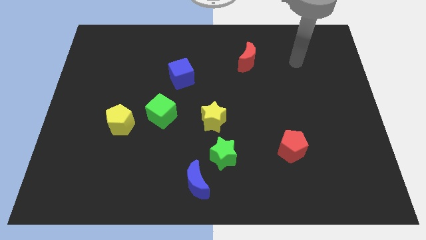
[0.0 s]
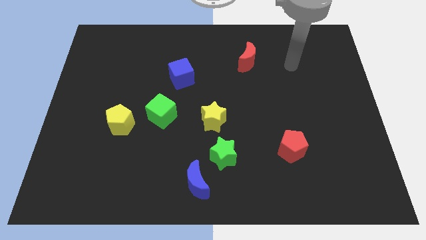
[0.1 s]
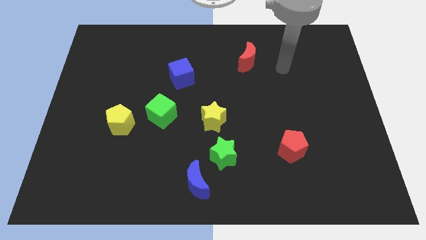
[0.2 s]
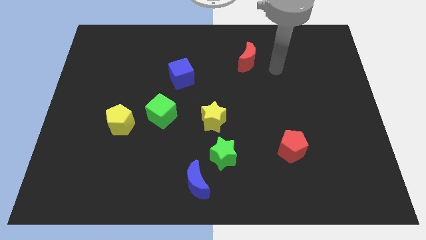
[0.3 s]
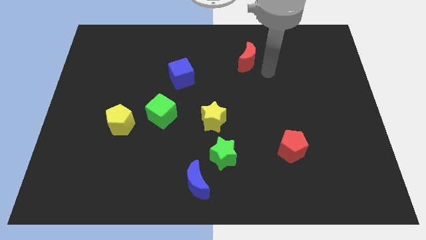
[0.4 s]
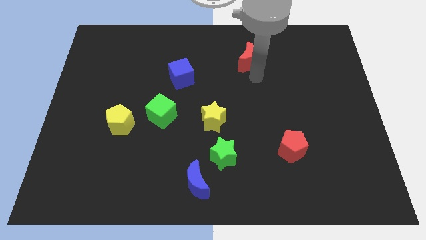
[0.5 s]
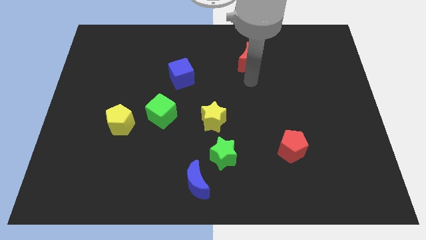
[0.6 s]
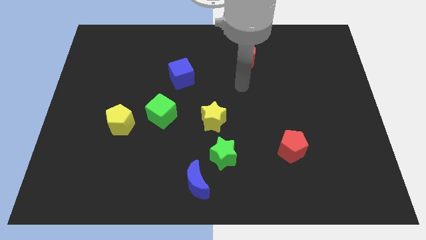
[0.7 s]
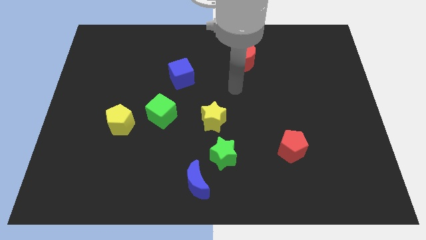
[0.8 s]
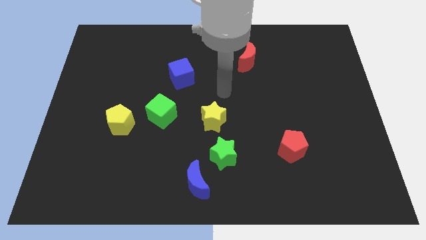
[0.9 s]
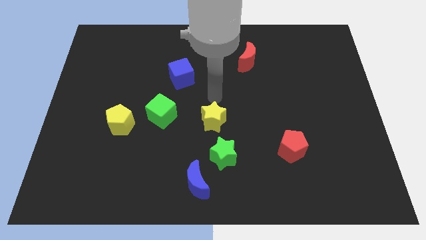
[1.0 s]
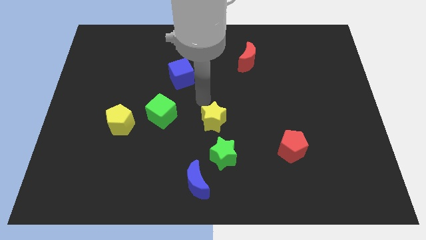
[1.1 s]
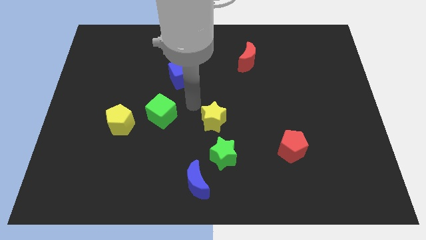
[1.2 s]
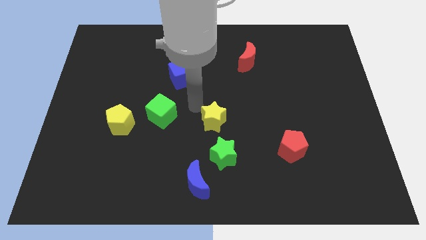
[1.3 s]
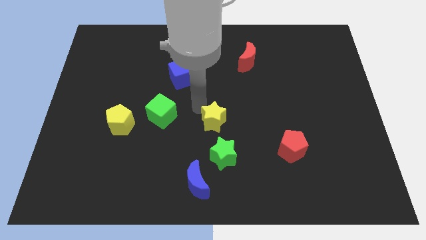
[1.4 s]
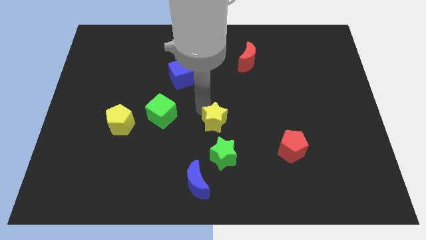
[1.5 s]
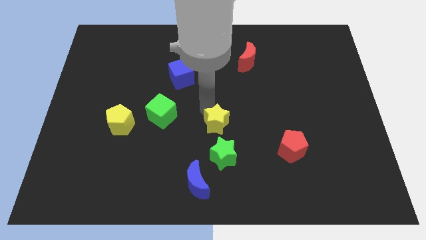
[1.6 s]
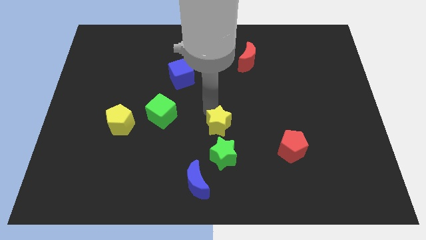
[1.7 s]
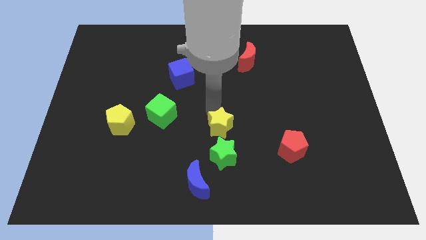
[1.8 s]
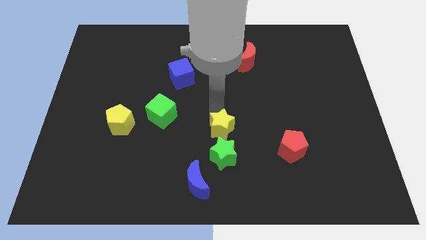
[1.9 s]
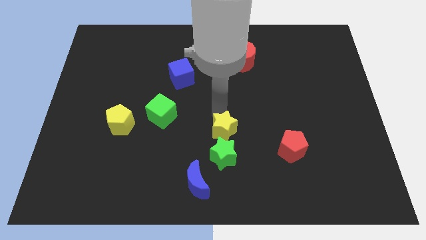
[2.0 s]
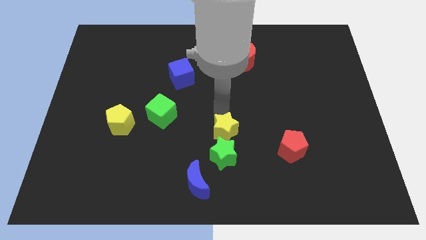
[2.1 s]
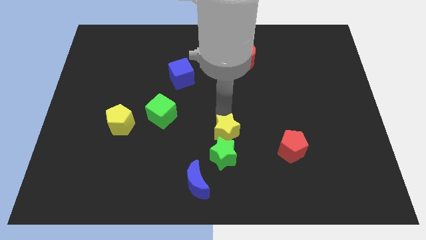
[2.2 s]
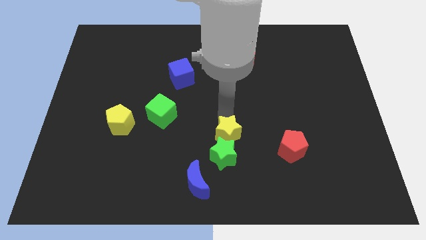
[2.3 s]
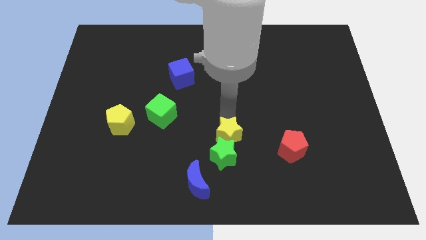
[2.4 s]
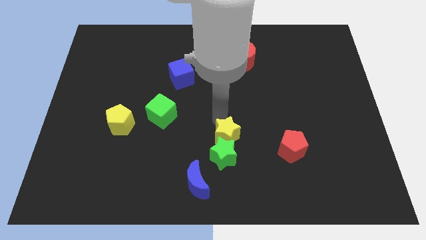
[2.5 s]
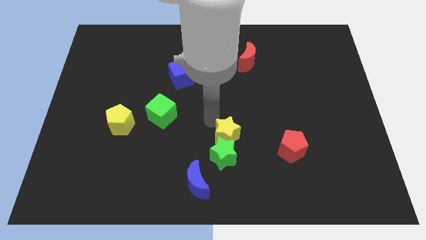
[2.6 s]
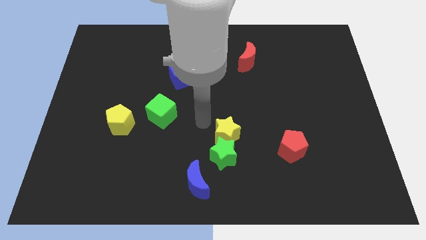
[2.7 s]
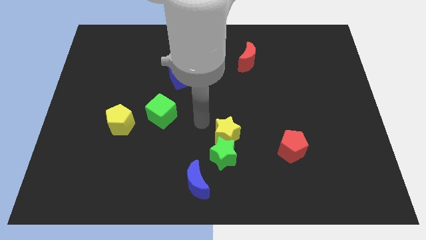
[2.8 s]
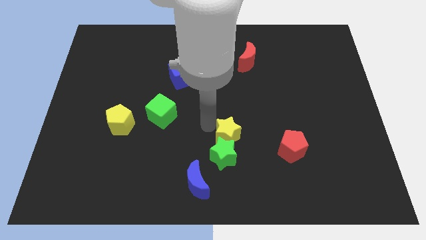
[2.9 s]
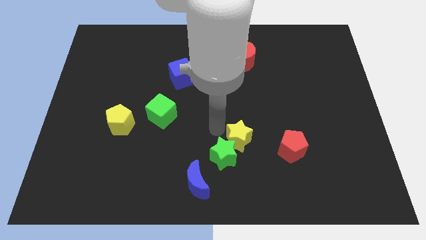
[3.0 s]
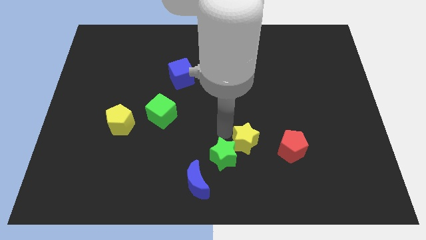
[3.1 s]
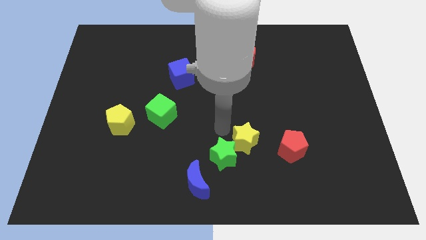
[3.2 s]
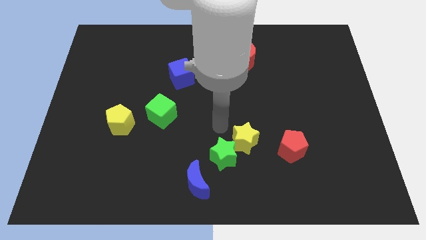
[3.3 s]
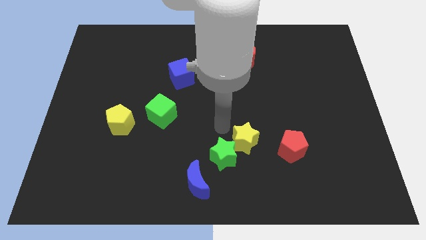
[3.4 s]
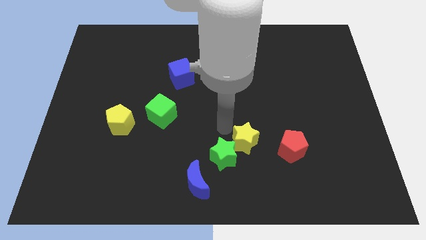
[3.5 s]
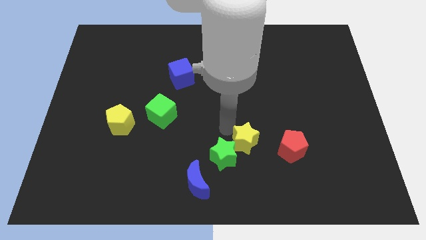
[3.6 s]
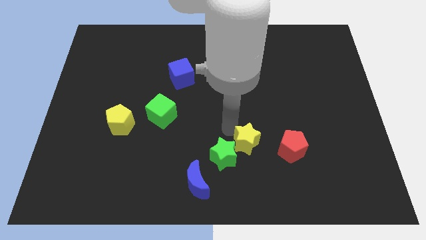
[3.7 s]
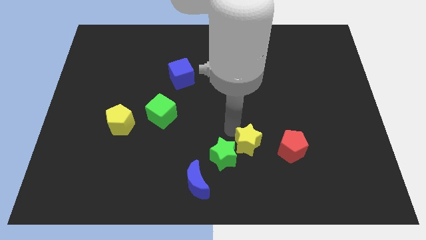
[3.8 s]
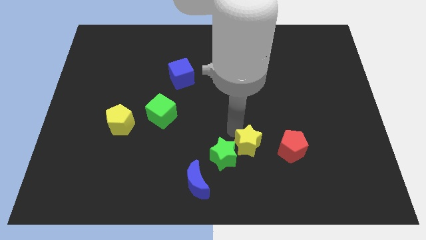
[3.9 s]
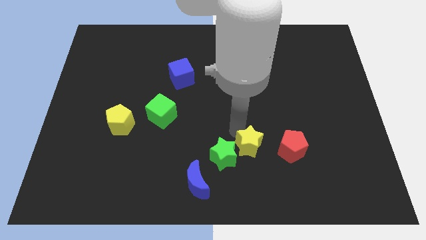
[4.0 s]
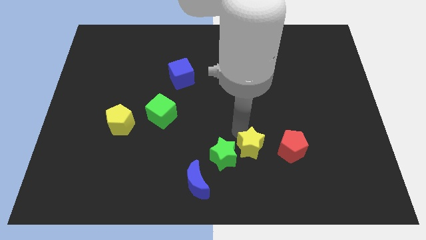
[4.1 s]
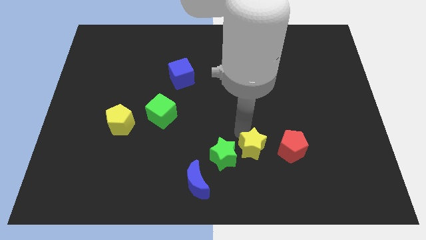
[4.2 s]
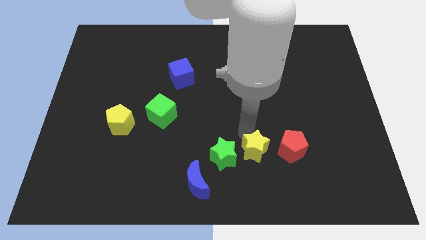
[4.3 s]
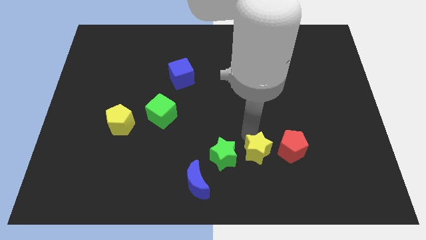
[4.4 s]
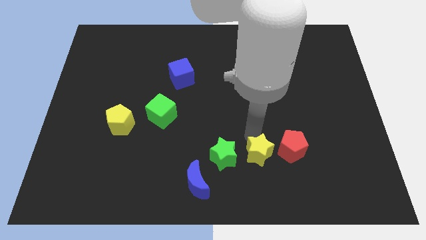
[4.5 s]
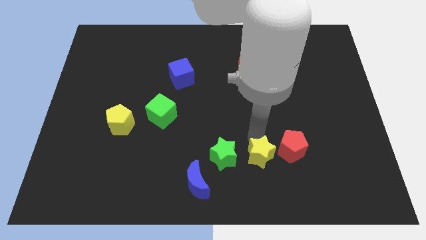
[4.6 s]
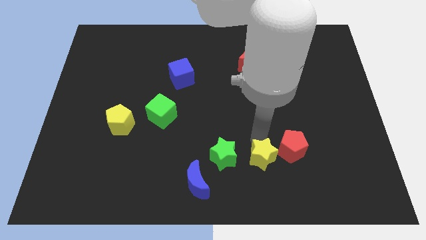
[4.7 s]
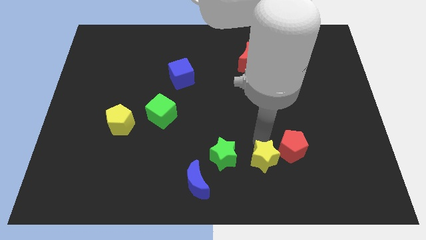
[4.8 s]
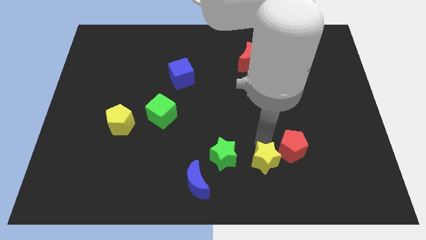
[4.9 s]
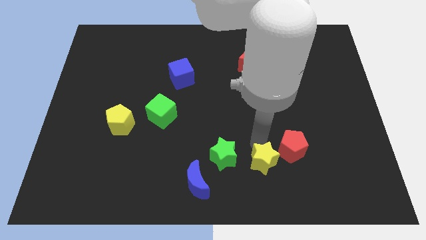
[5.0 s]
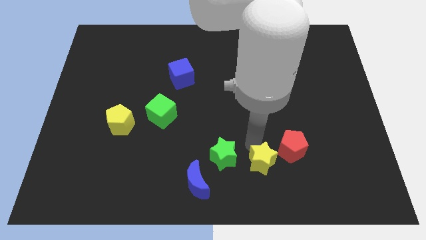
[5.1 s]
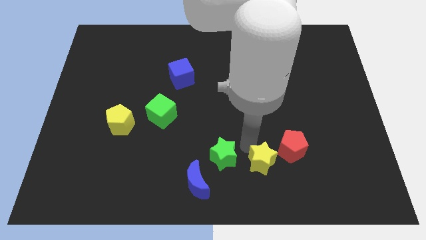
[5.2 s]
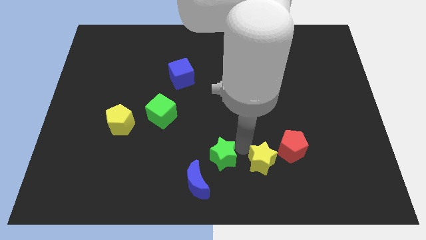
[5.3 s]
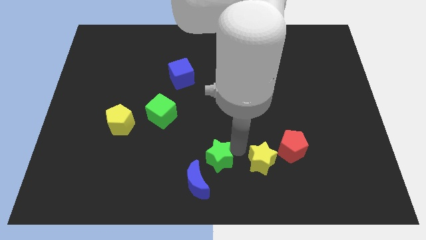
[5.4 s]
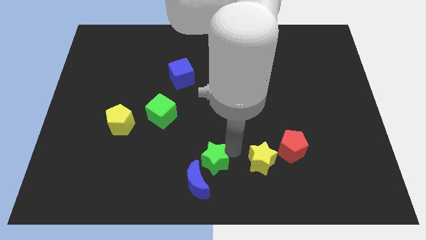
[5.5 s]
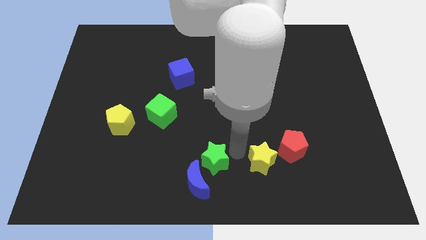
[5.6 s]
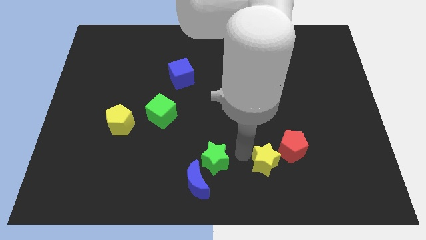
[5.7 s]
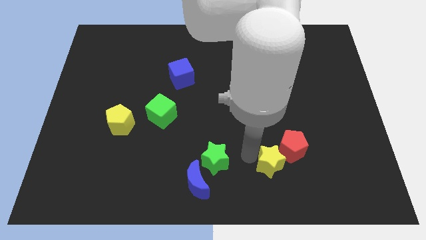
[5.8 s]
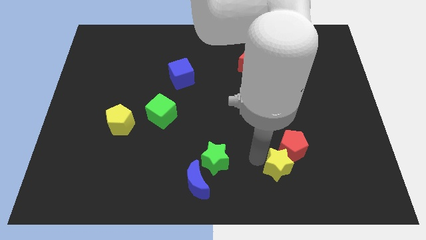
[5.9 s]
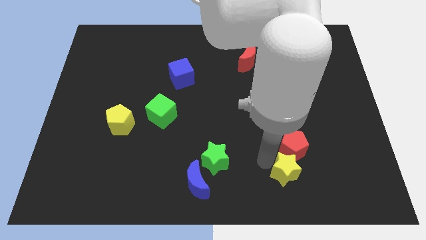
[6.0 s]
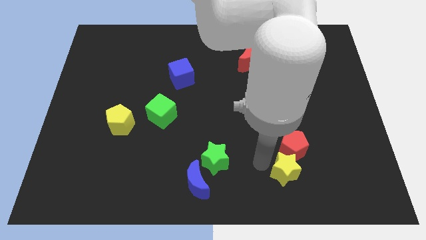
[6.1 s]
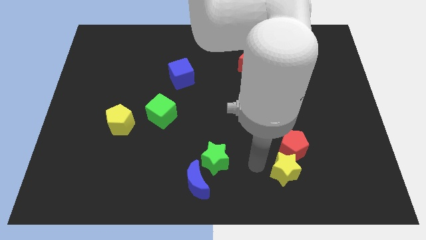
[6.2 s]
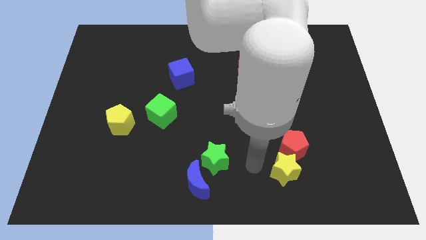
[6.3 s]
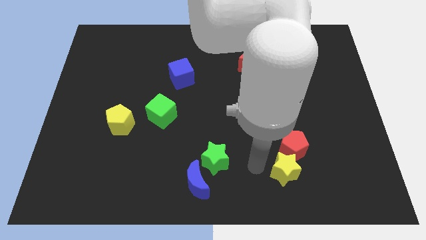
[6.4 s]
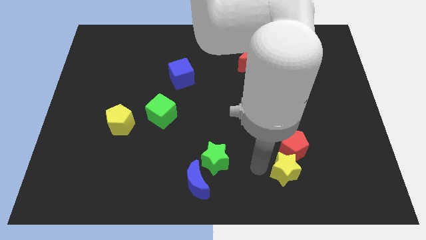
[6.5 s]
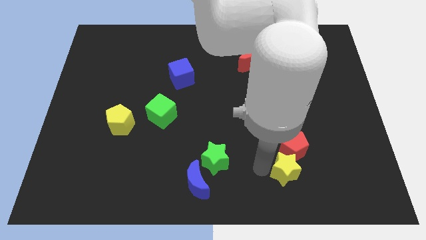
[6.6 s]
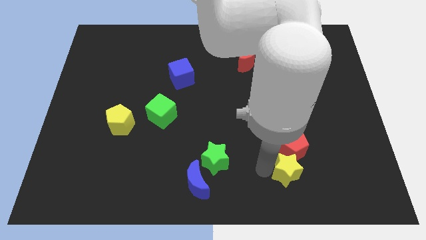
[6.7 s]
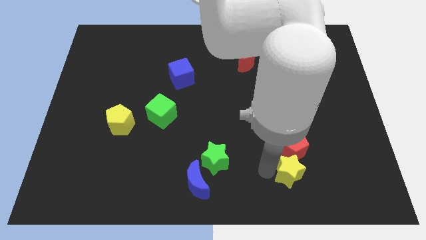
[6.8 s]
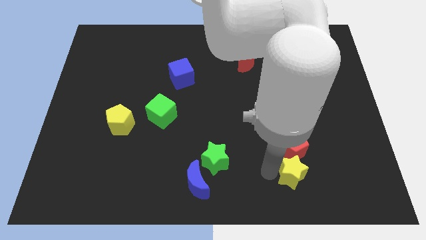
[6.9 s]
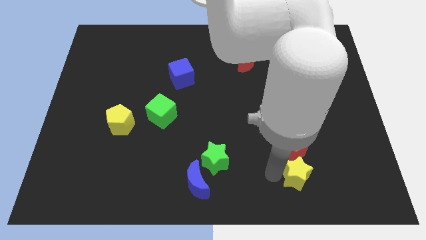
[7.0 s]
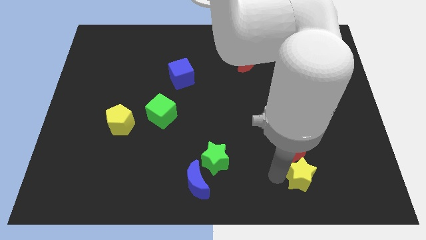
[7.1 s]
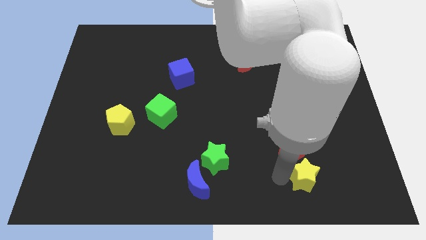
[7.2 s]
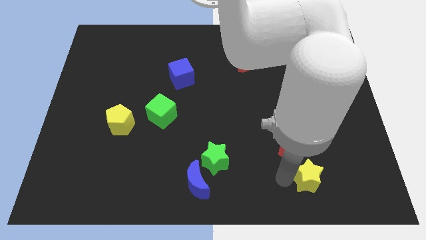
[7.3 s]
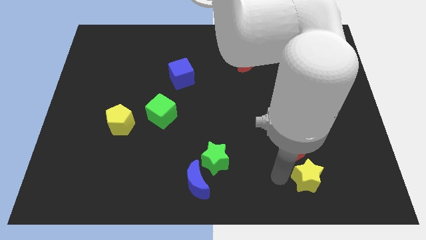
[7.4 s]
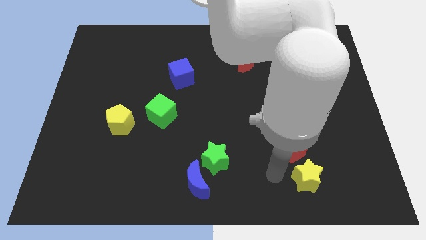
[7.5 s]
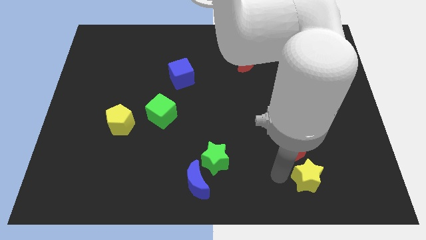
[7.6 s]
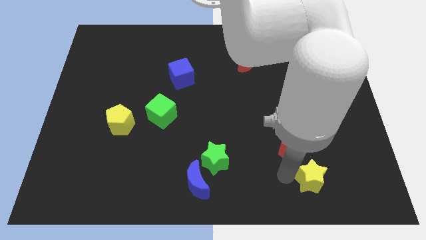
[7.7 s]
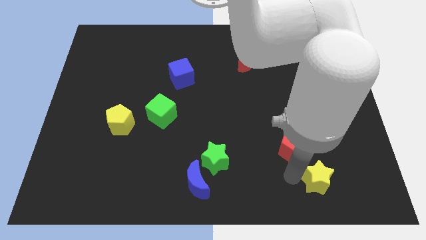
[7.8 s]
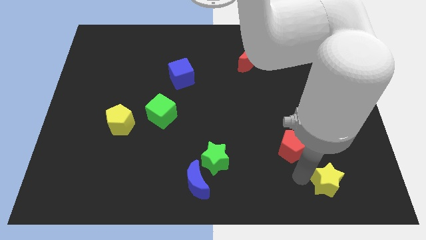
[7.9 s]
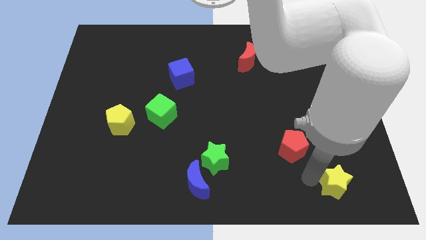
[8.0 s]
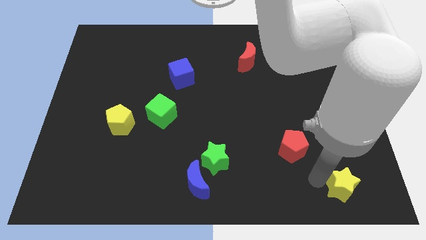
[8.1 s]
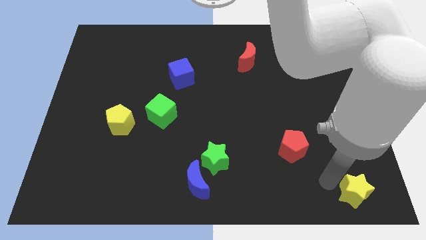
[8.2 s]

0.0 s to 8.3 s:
move the yellow star to the bottom right of the board
